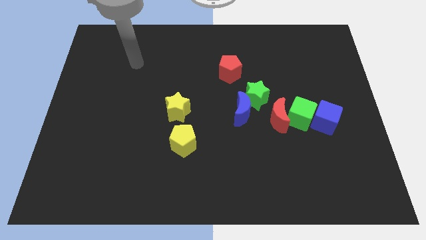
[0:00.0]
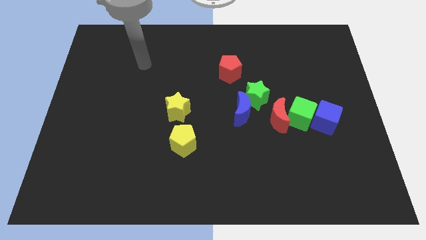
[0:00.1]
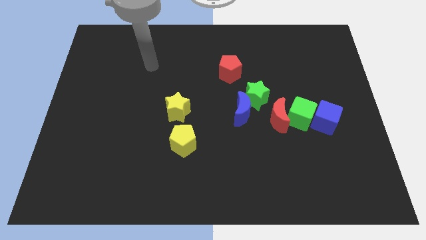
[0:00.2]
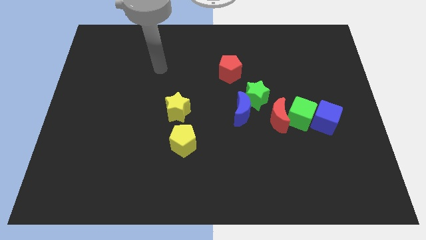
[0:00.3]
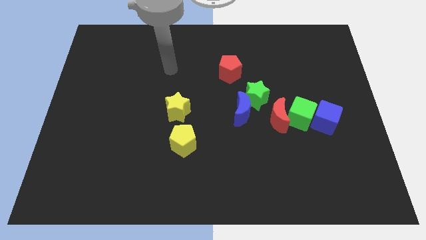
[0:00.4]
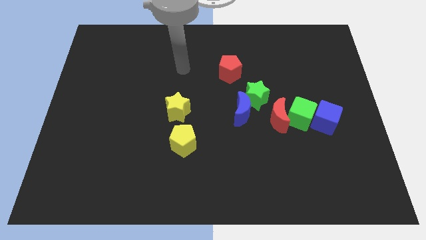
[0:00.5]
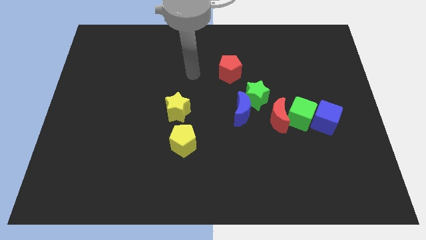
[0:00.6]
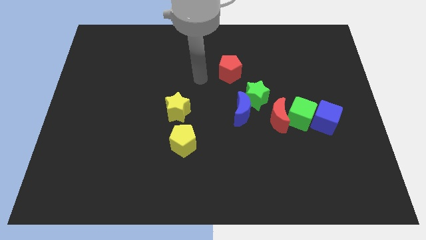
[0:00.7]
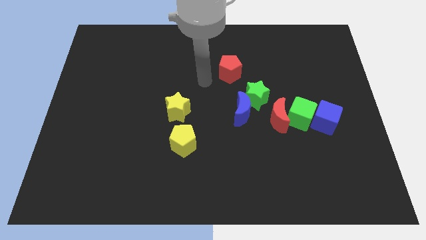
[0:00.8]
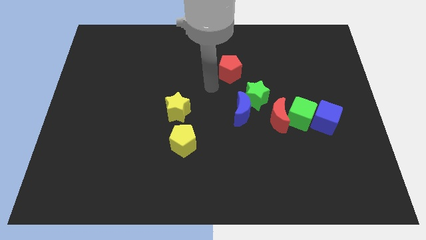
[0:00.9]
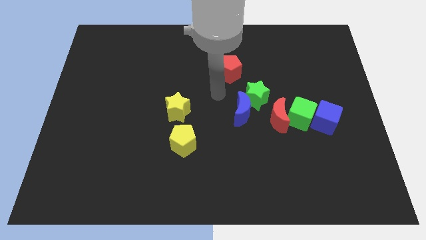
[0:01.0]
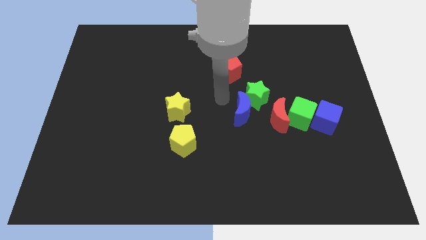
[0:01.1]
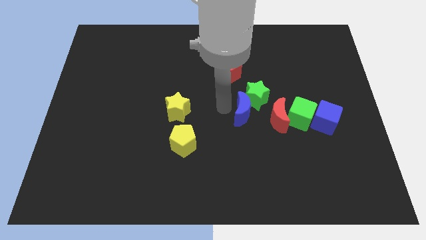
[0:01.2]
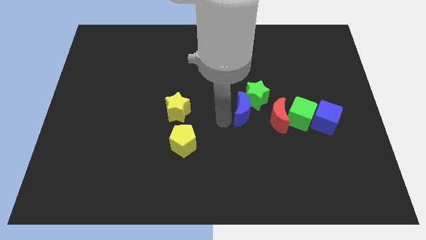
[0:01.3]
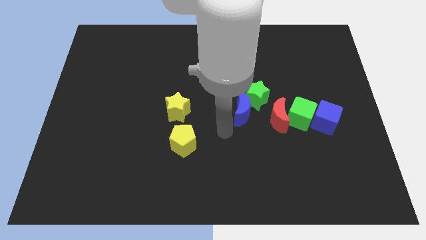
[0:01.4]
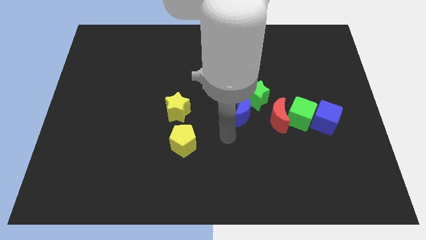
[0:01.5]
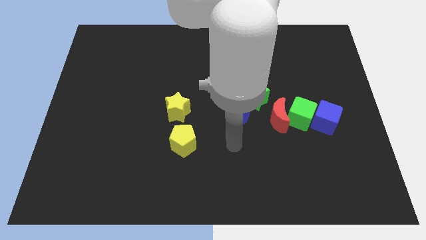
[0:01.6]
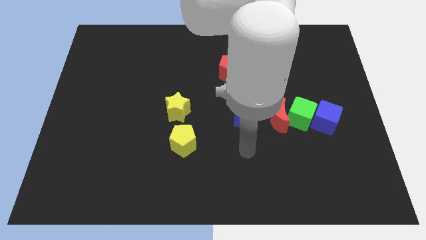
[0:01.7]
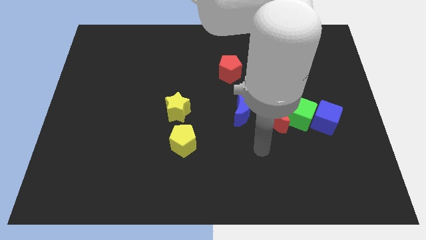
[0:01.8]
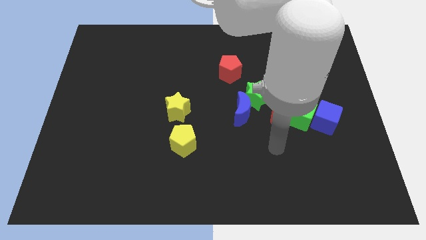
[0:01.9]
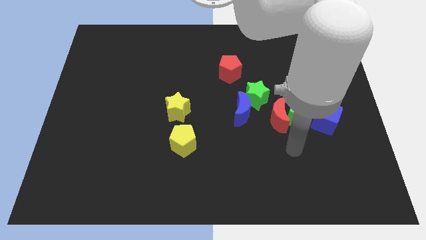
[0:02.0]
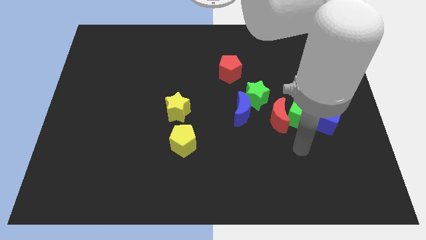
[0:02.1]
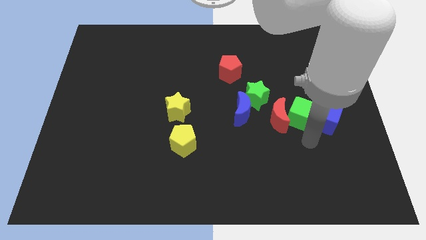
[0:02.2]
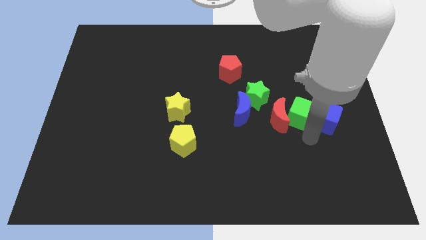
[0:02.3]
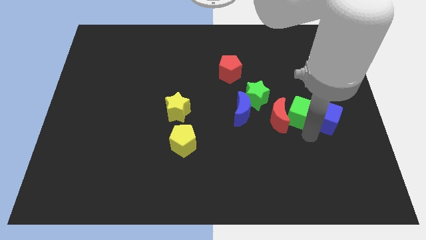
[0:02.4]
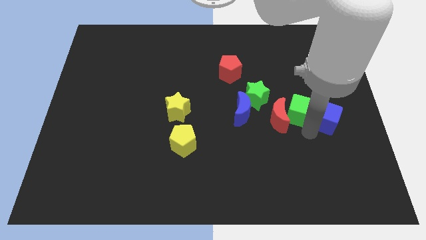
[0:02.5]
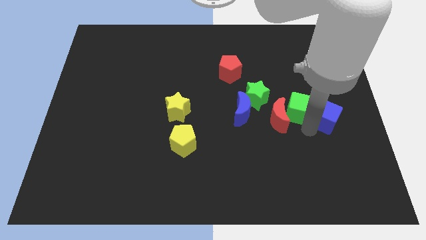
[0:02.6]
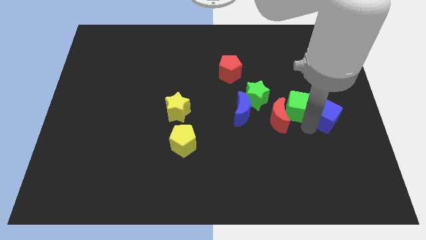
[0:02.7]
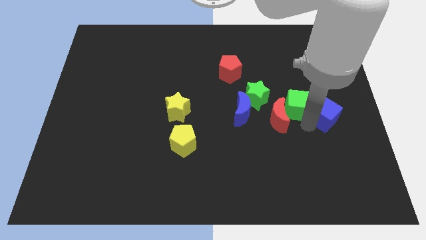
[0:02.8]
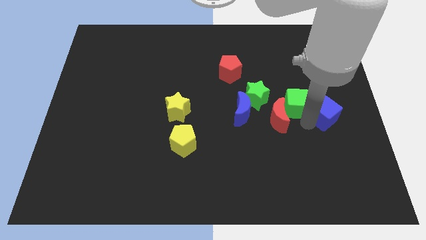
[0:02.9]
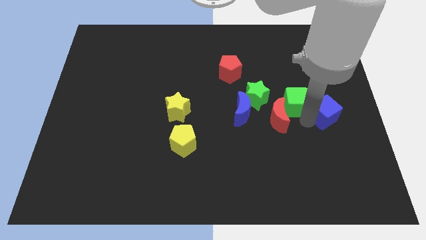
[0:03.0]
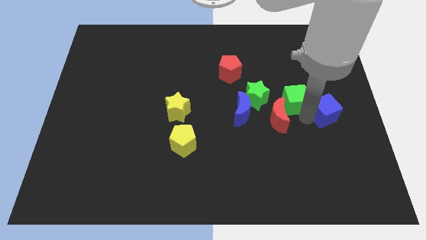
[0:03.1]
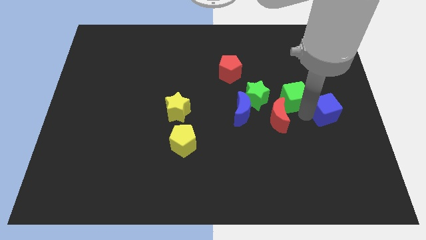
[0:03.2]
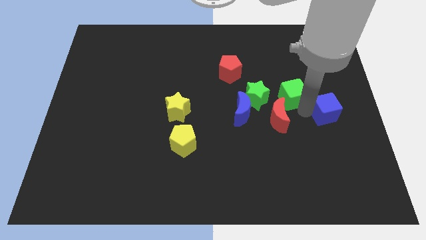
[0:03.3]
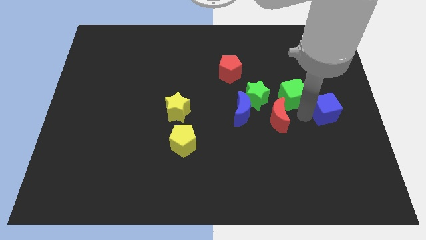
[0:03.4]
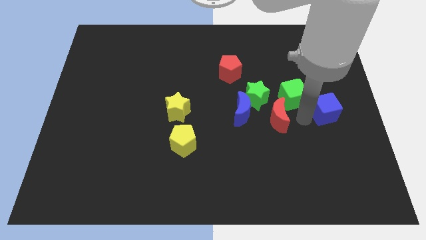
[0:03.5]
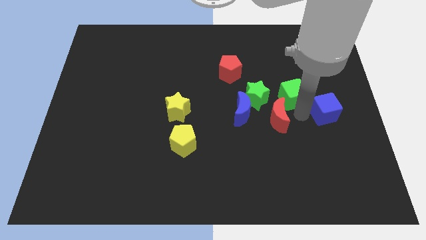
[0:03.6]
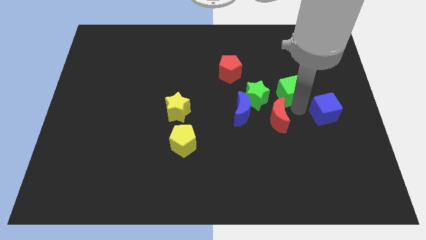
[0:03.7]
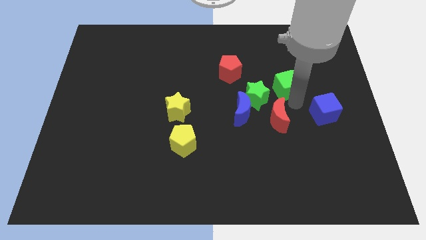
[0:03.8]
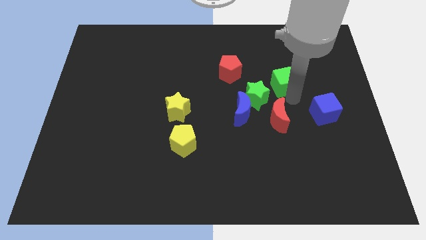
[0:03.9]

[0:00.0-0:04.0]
move the green cube away from the red moon and blue cube

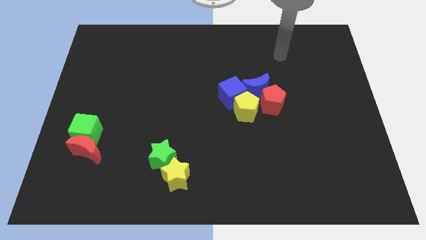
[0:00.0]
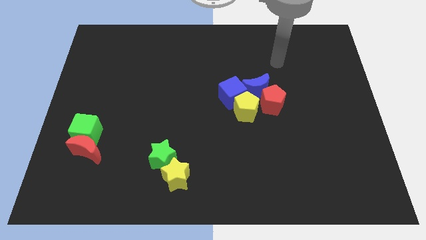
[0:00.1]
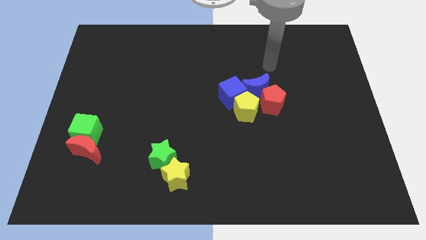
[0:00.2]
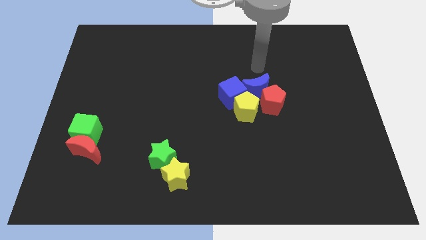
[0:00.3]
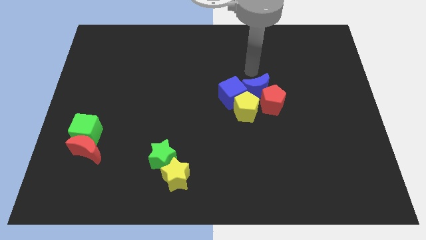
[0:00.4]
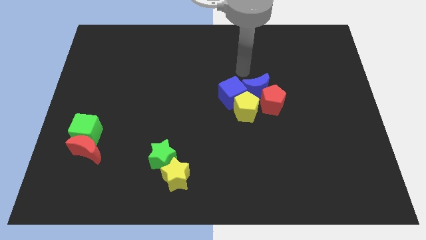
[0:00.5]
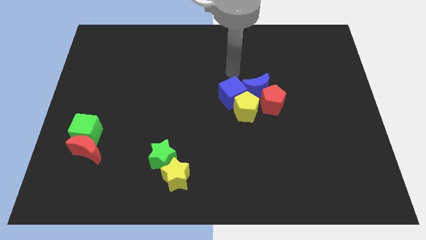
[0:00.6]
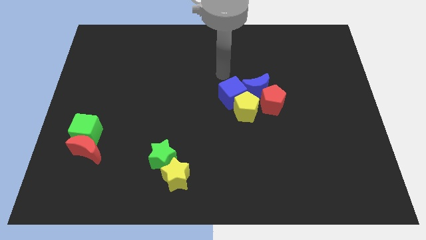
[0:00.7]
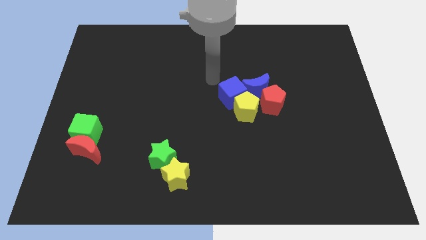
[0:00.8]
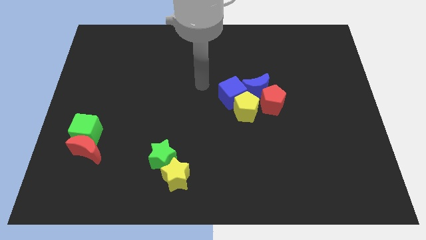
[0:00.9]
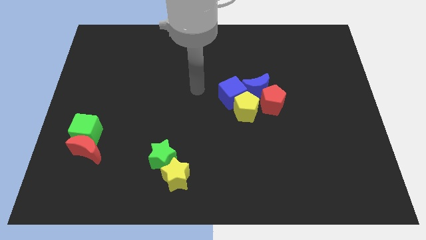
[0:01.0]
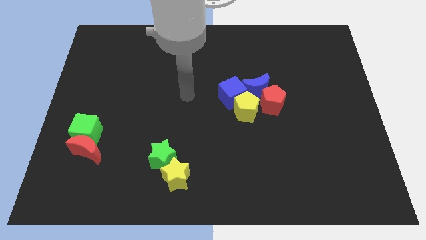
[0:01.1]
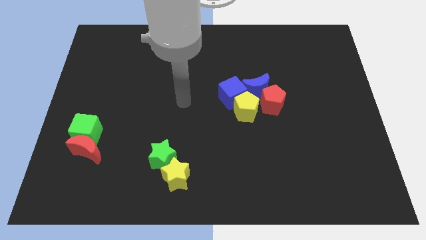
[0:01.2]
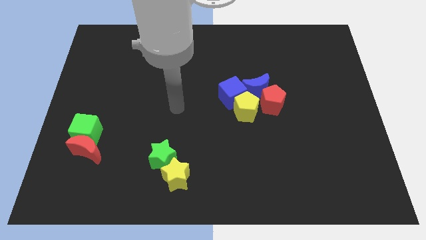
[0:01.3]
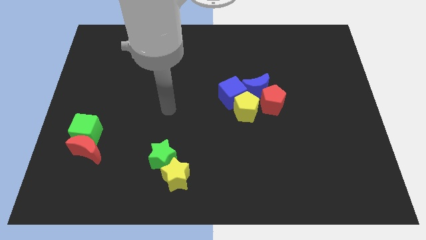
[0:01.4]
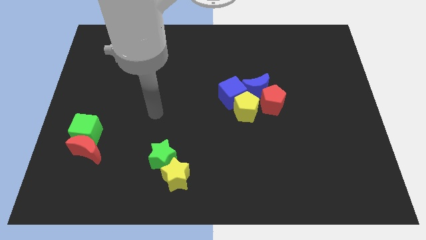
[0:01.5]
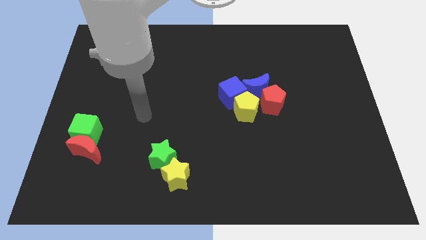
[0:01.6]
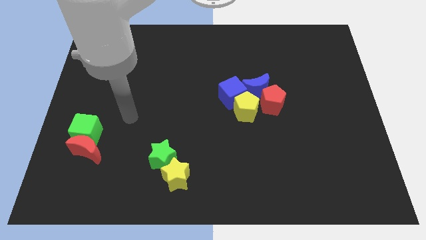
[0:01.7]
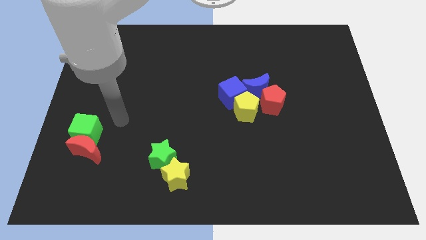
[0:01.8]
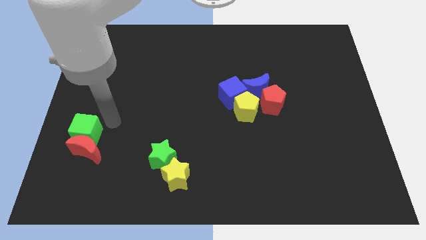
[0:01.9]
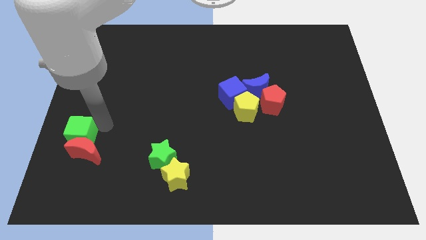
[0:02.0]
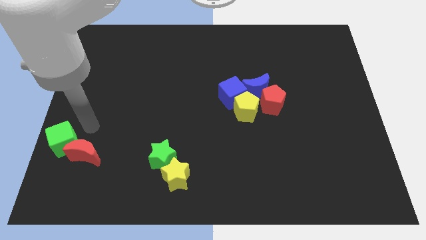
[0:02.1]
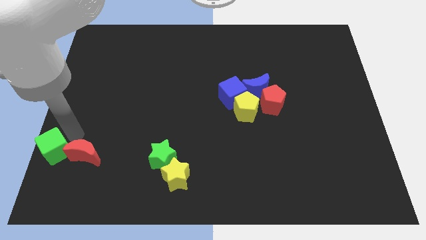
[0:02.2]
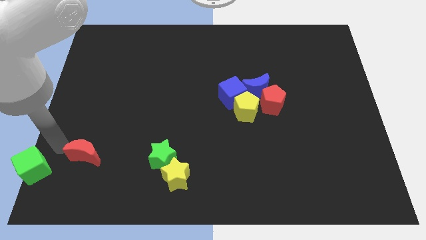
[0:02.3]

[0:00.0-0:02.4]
separate the red moon from the green cube

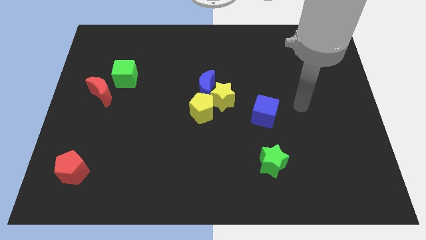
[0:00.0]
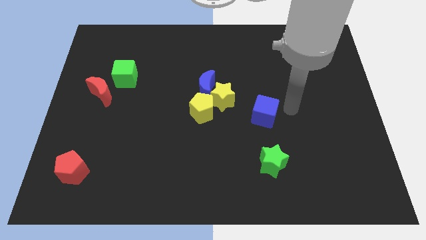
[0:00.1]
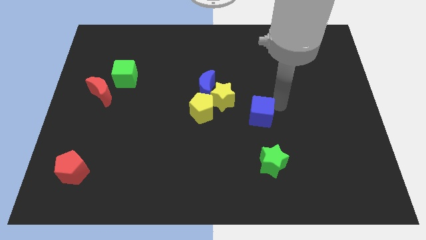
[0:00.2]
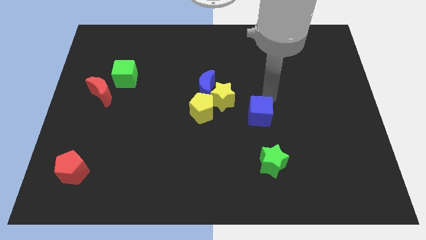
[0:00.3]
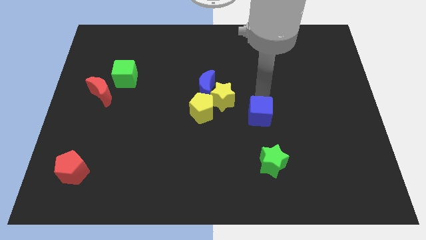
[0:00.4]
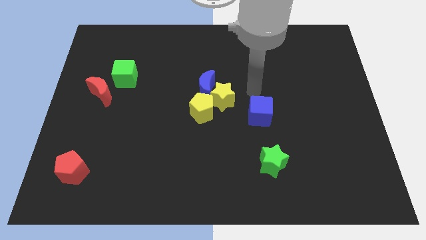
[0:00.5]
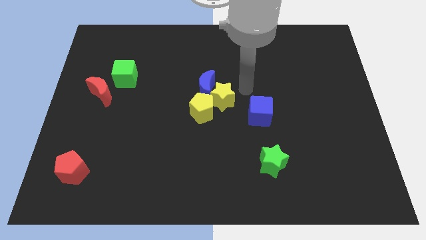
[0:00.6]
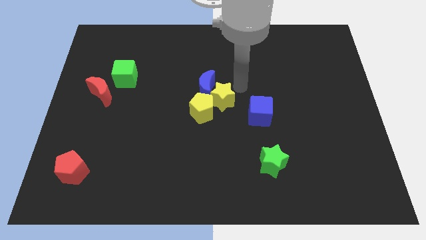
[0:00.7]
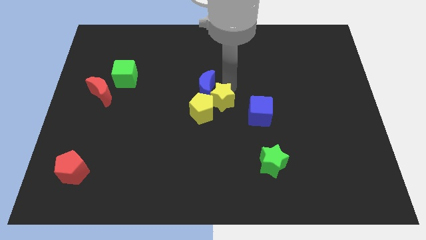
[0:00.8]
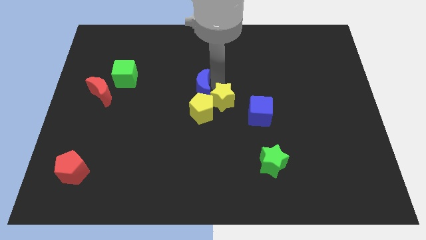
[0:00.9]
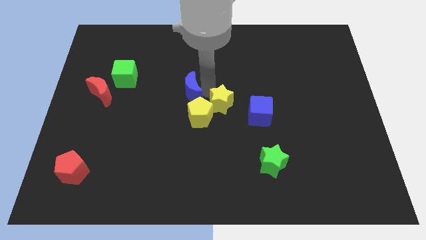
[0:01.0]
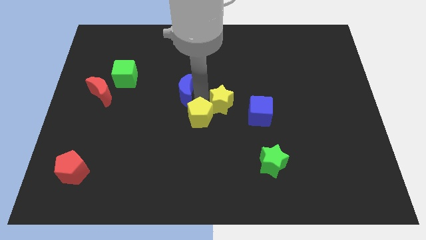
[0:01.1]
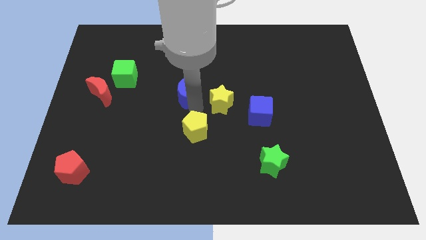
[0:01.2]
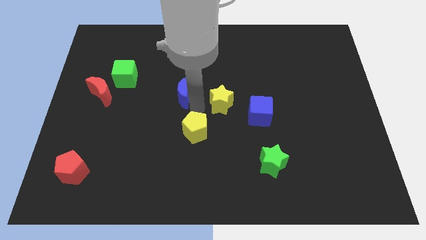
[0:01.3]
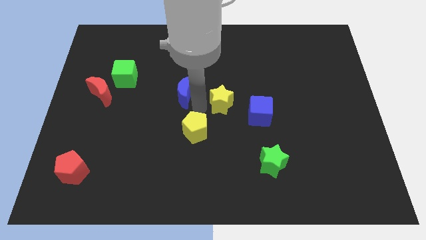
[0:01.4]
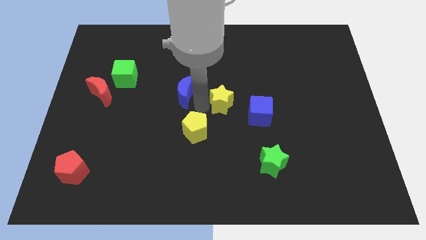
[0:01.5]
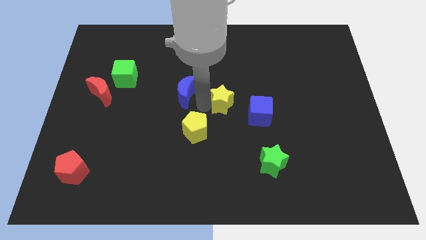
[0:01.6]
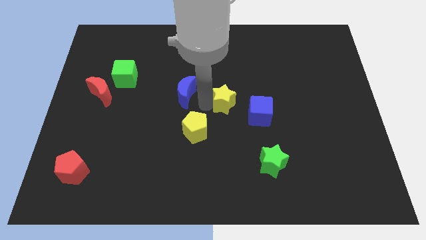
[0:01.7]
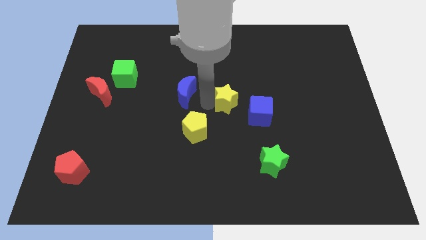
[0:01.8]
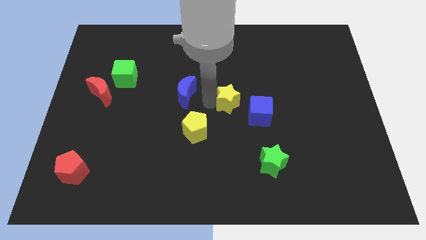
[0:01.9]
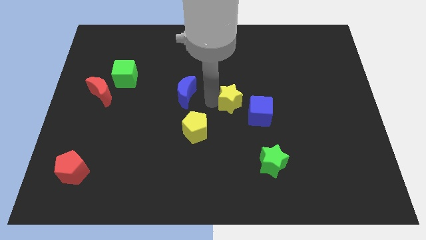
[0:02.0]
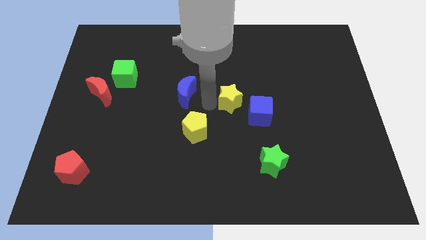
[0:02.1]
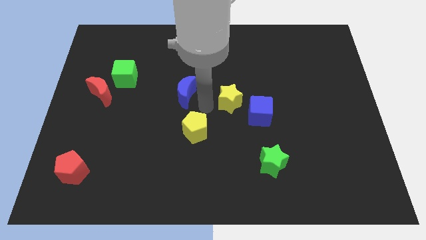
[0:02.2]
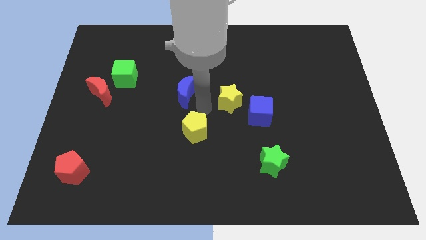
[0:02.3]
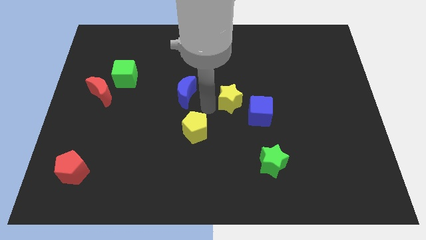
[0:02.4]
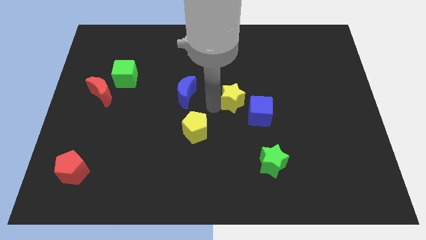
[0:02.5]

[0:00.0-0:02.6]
move the yellow star away from the blue moon and yellow pentagon

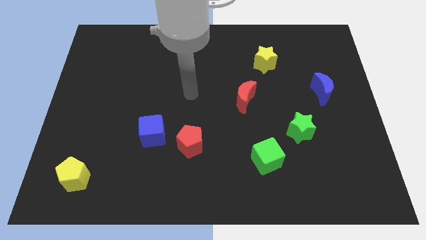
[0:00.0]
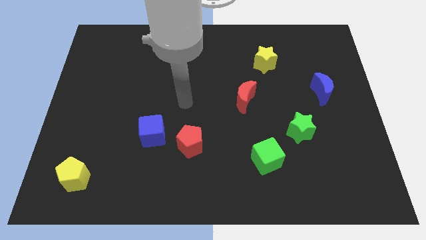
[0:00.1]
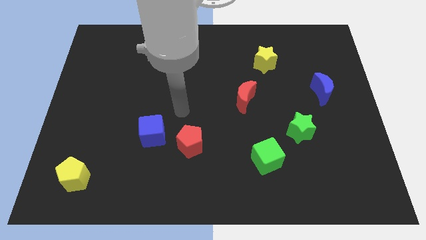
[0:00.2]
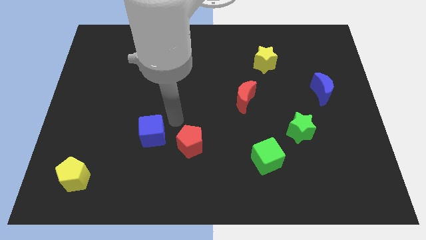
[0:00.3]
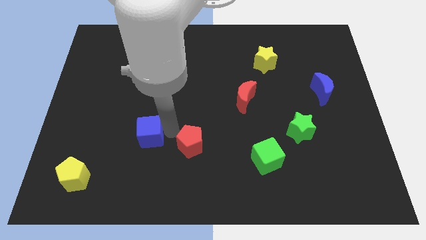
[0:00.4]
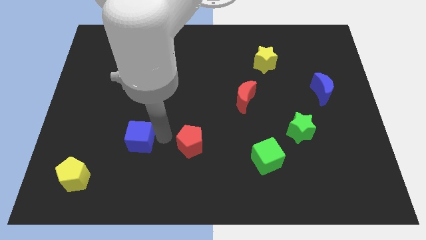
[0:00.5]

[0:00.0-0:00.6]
separate the red pentagon from the blue cube

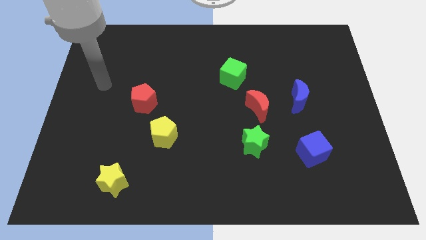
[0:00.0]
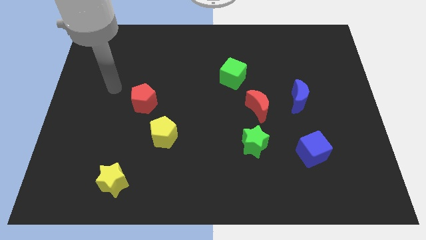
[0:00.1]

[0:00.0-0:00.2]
separate the red moon from the blue moon
